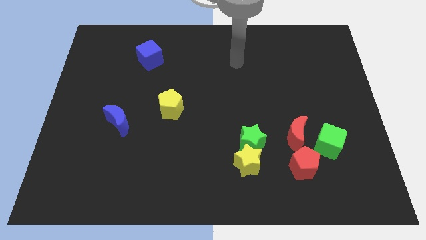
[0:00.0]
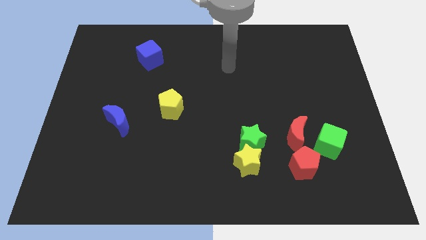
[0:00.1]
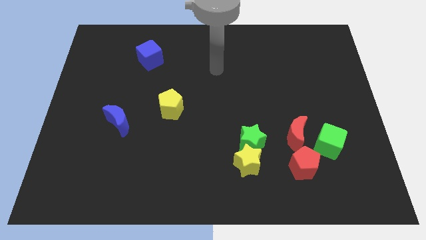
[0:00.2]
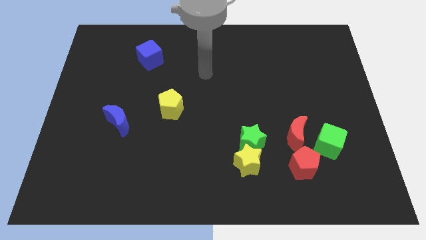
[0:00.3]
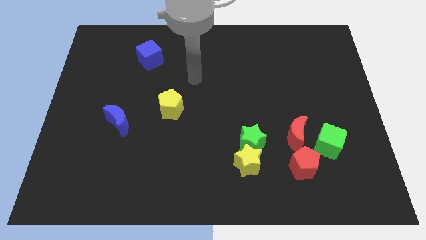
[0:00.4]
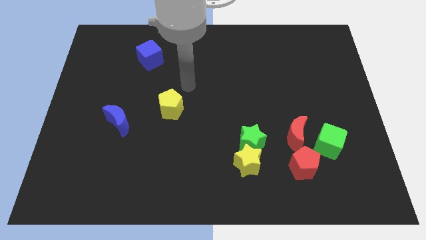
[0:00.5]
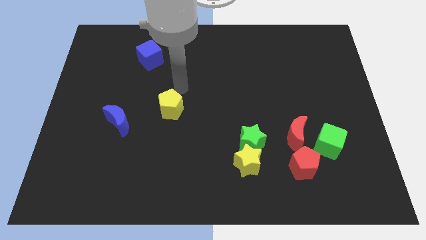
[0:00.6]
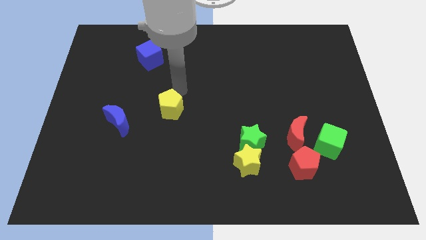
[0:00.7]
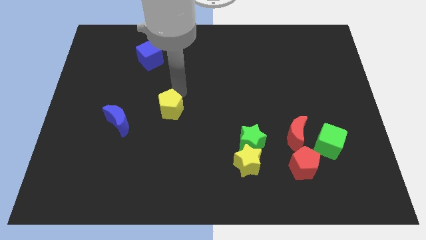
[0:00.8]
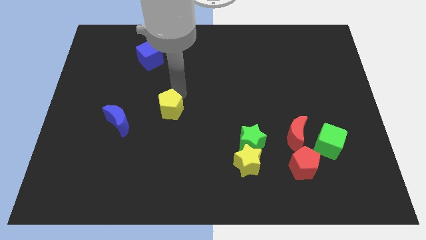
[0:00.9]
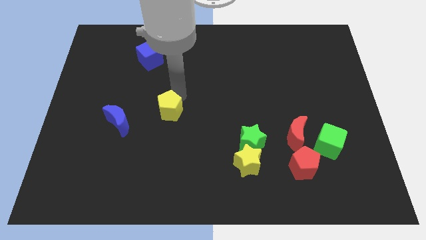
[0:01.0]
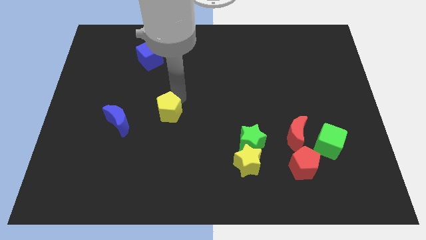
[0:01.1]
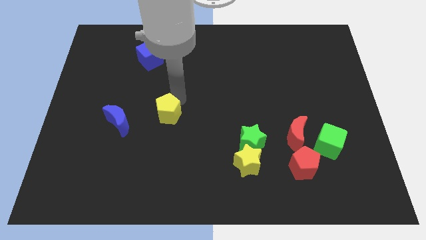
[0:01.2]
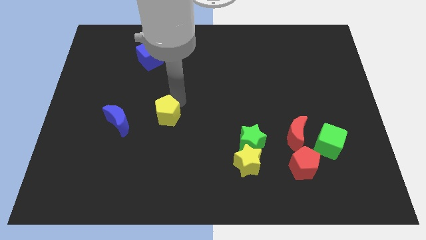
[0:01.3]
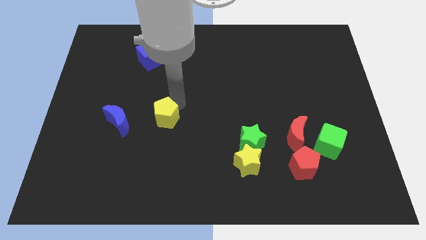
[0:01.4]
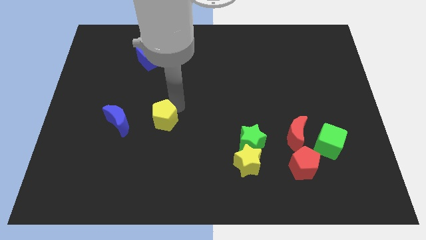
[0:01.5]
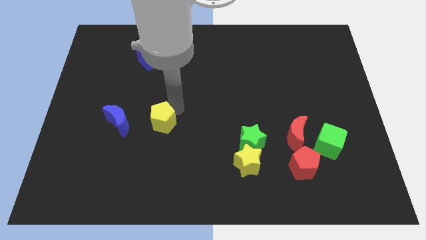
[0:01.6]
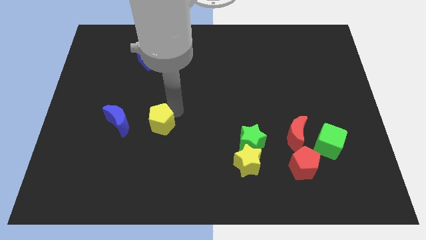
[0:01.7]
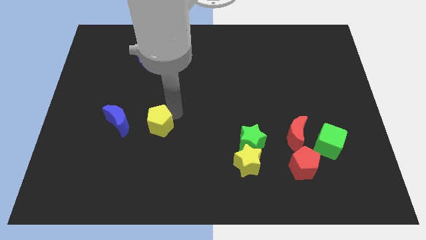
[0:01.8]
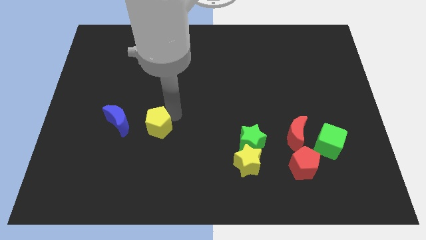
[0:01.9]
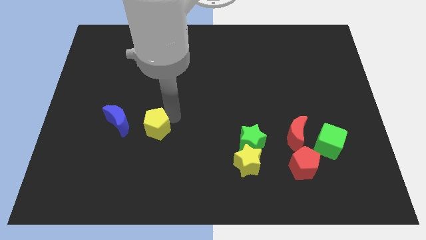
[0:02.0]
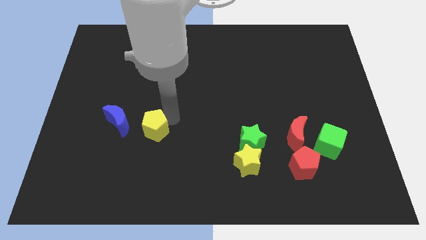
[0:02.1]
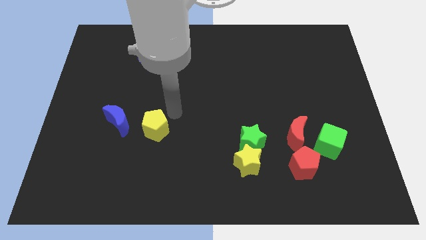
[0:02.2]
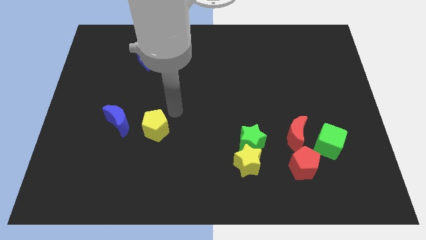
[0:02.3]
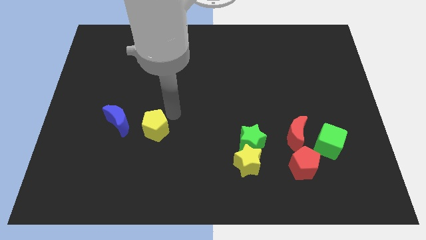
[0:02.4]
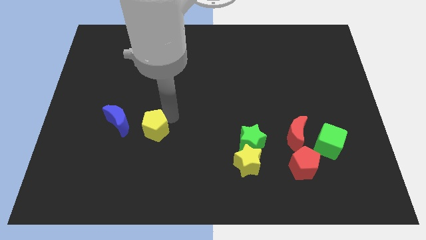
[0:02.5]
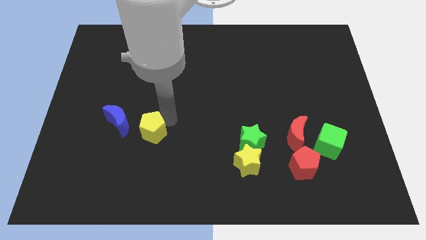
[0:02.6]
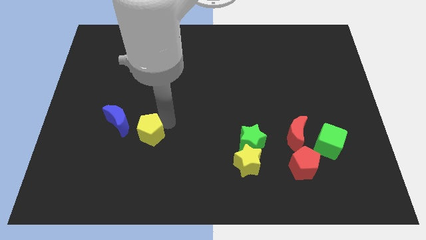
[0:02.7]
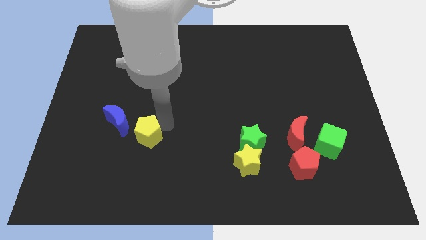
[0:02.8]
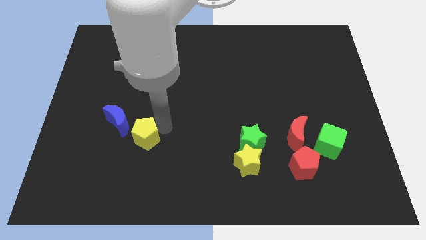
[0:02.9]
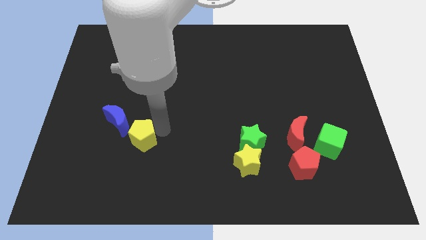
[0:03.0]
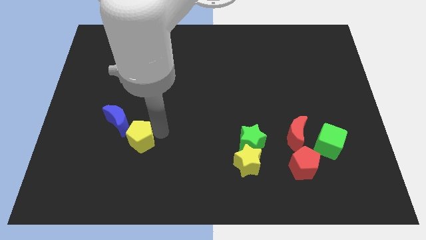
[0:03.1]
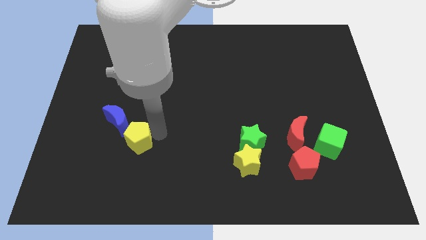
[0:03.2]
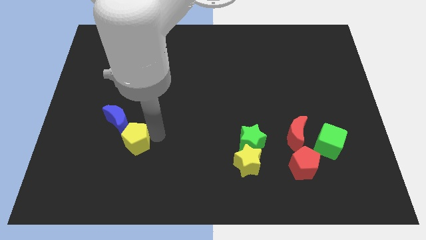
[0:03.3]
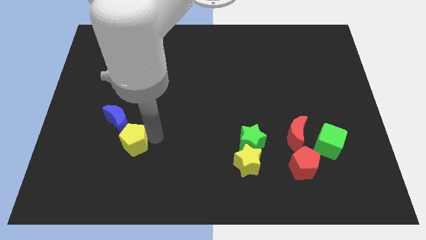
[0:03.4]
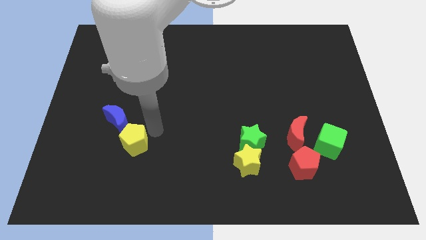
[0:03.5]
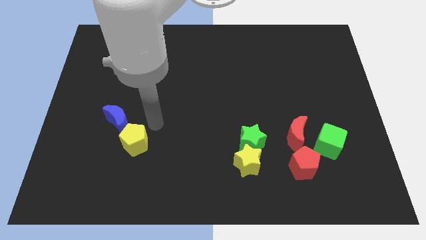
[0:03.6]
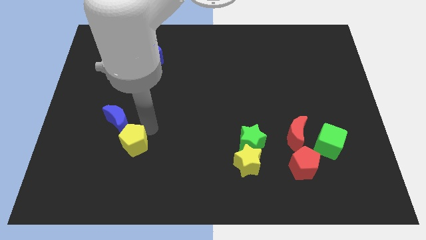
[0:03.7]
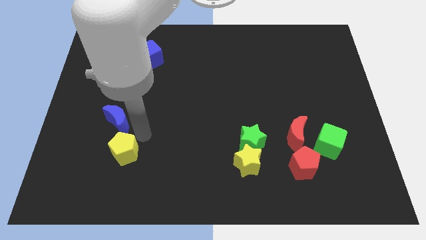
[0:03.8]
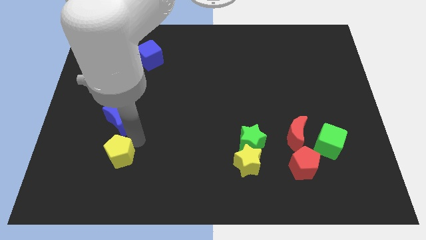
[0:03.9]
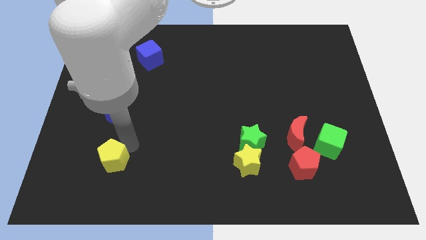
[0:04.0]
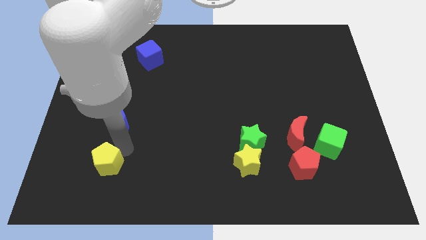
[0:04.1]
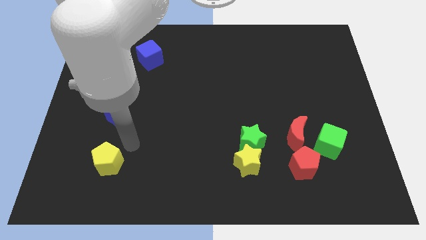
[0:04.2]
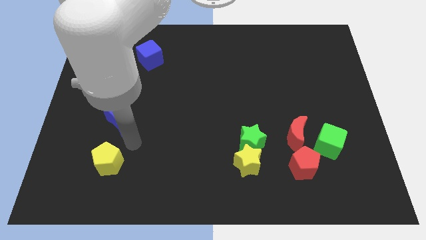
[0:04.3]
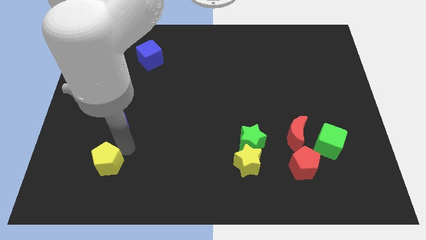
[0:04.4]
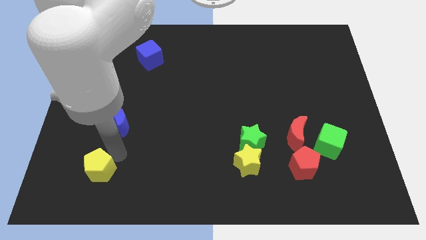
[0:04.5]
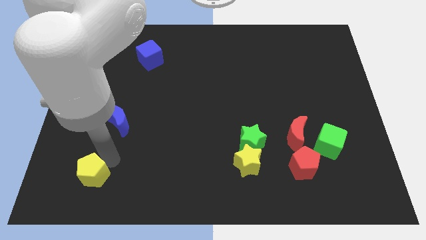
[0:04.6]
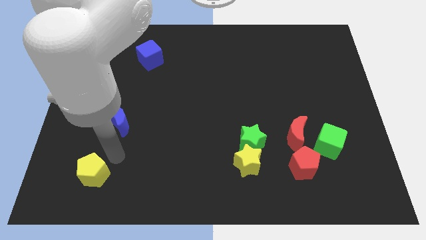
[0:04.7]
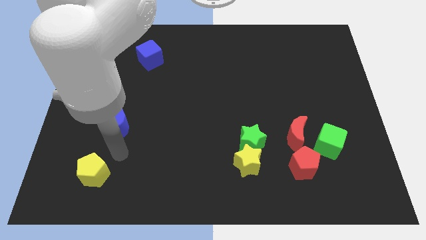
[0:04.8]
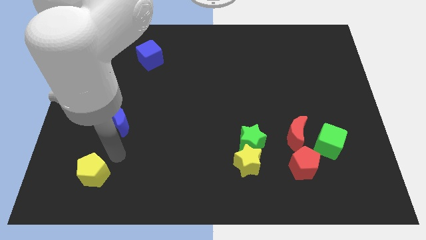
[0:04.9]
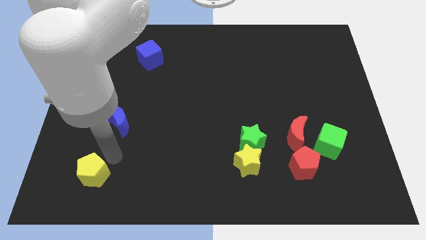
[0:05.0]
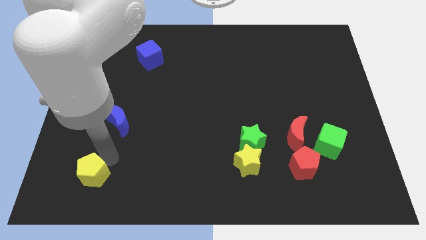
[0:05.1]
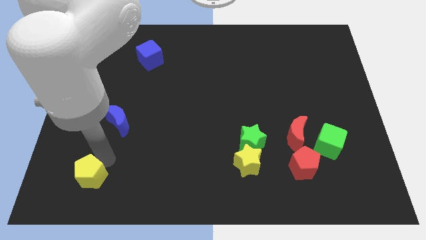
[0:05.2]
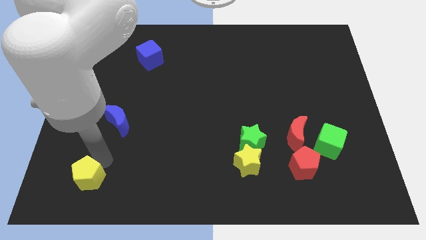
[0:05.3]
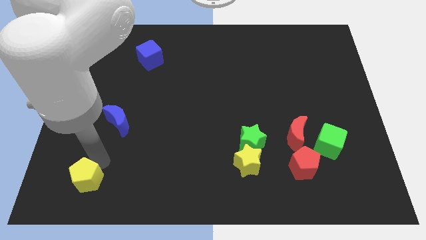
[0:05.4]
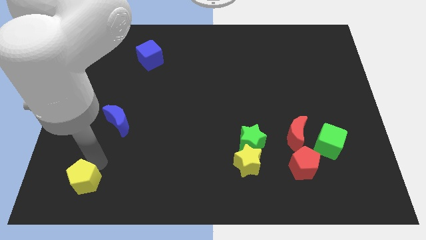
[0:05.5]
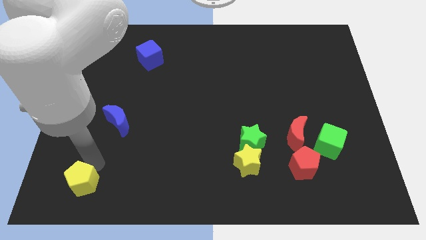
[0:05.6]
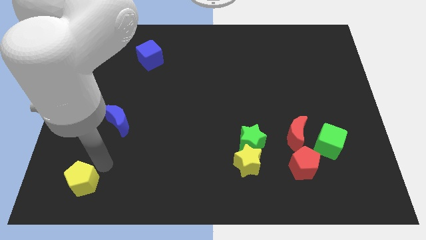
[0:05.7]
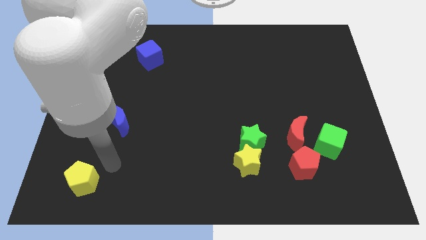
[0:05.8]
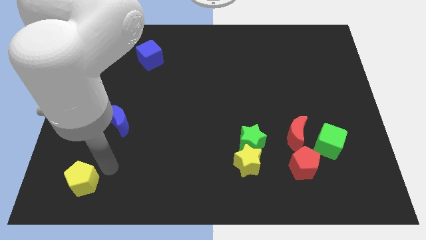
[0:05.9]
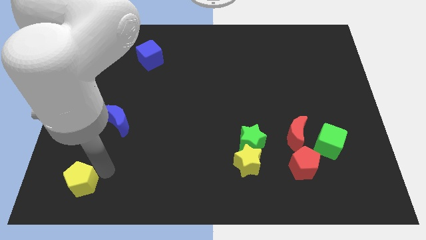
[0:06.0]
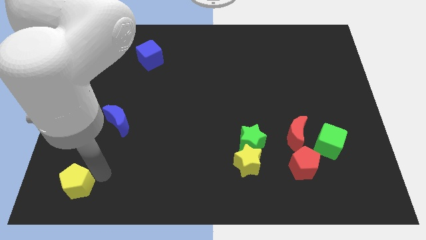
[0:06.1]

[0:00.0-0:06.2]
slide the yellow pentagon to the bottom left of the board

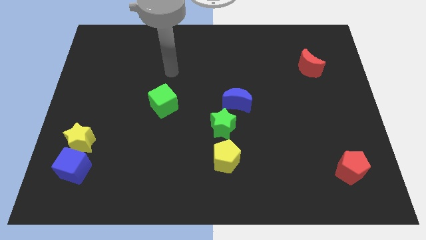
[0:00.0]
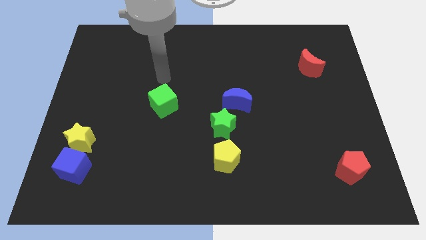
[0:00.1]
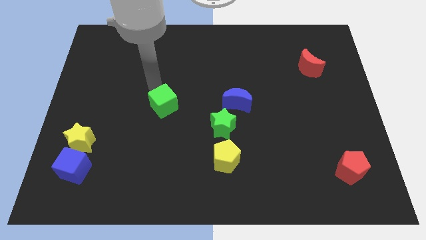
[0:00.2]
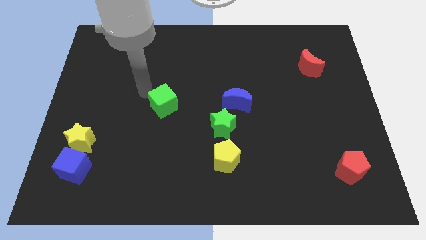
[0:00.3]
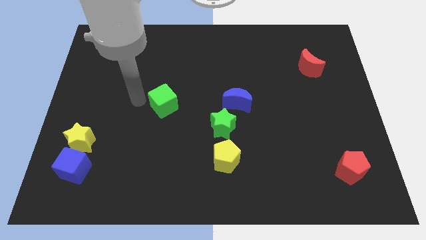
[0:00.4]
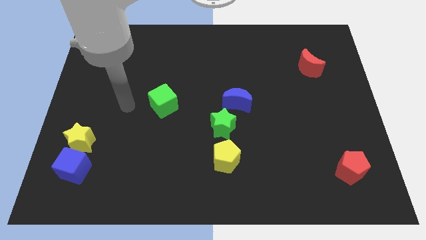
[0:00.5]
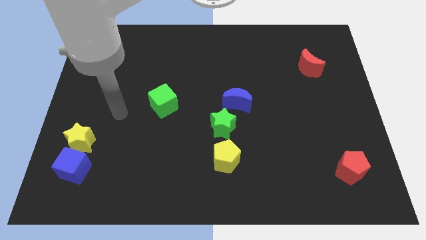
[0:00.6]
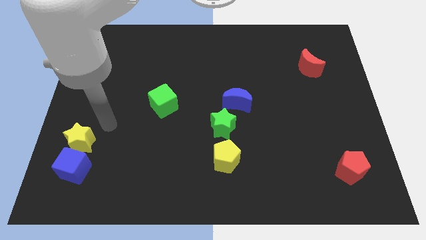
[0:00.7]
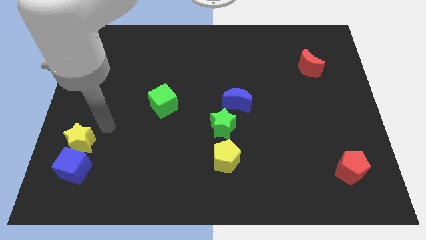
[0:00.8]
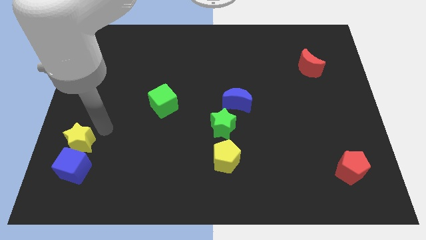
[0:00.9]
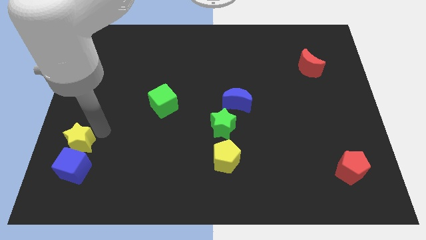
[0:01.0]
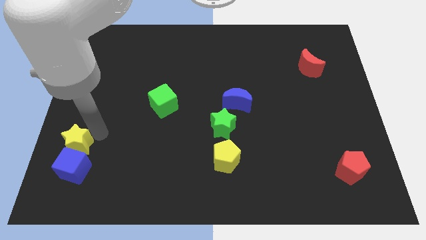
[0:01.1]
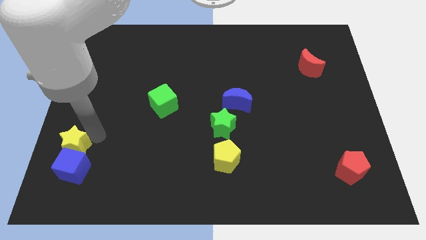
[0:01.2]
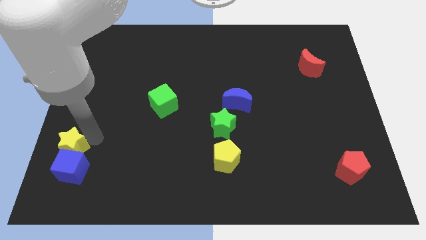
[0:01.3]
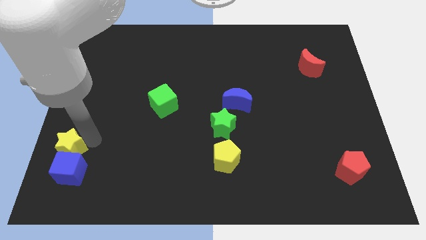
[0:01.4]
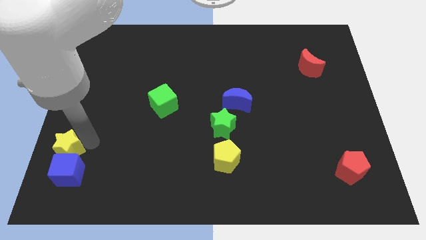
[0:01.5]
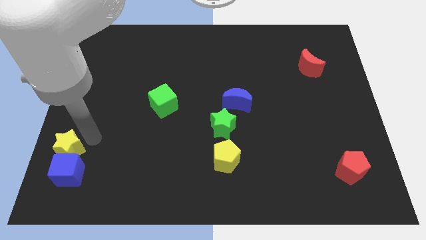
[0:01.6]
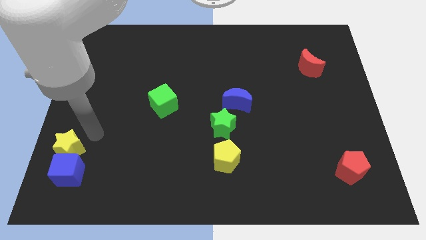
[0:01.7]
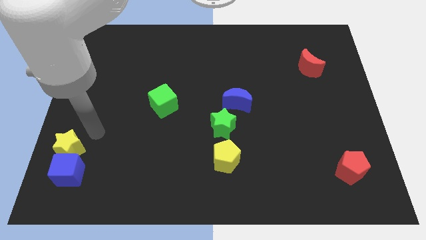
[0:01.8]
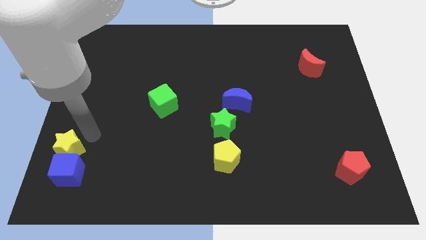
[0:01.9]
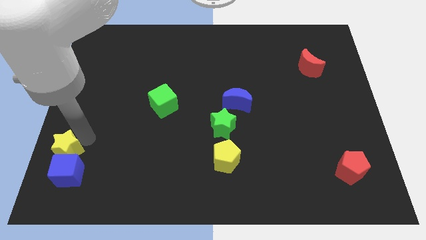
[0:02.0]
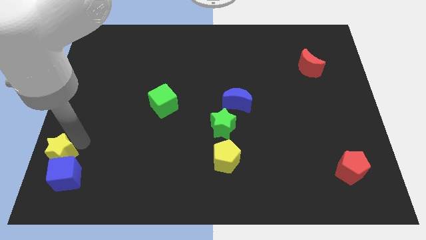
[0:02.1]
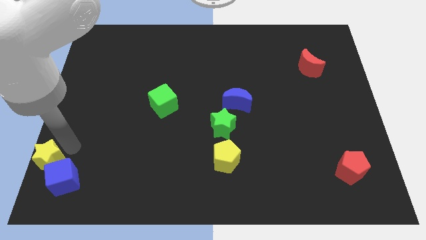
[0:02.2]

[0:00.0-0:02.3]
move the yellow star to the lower left corner
